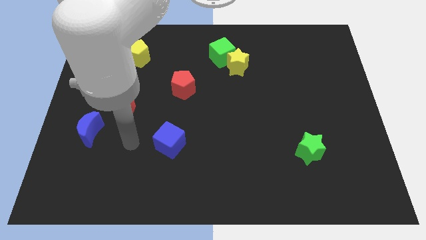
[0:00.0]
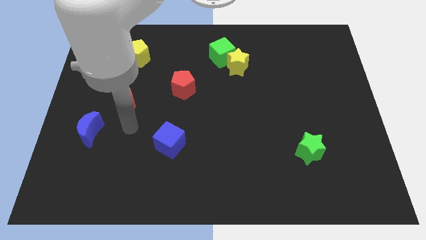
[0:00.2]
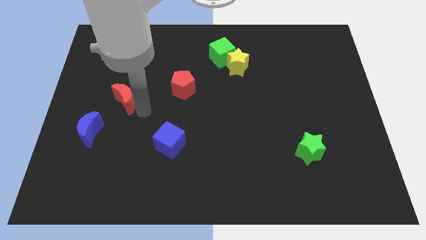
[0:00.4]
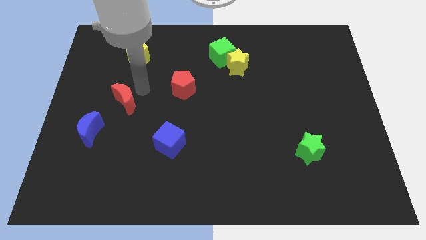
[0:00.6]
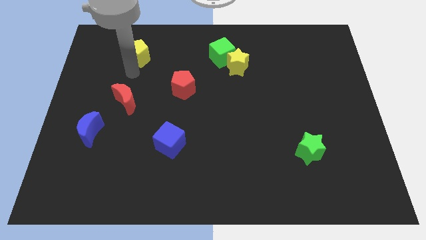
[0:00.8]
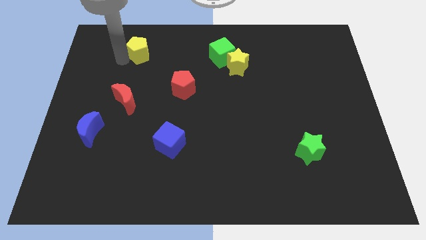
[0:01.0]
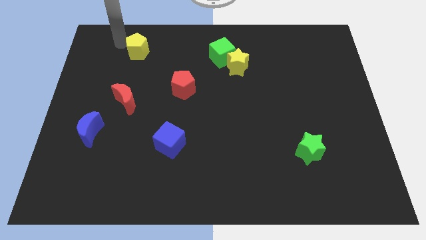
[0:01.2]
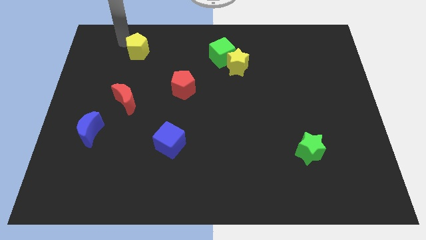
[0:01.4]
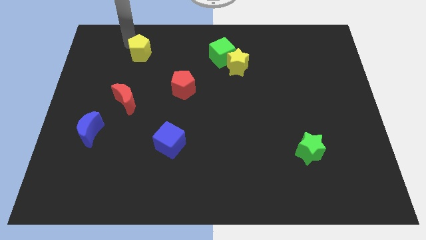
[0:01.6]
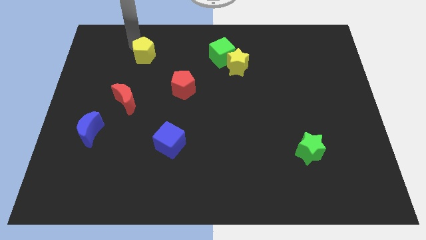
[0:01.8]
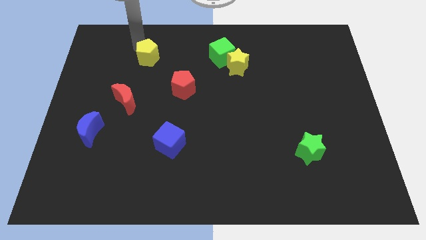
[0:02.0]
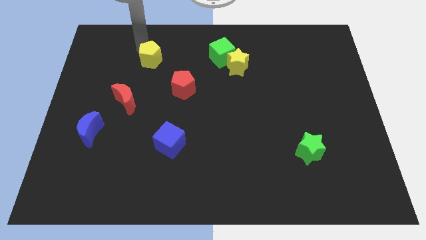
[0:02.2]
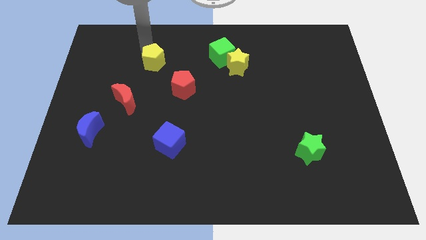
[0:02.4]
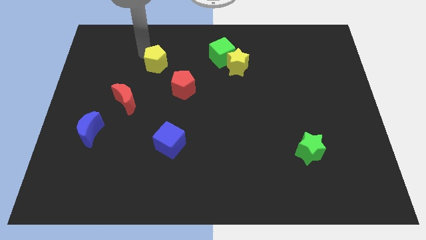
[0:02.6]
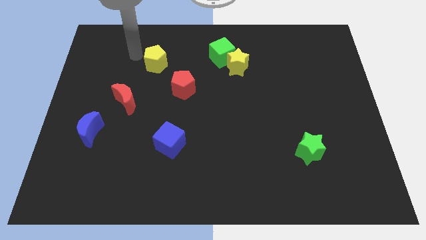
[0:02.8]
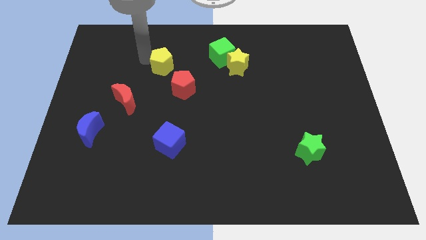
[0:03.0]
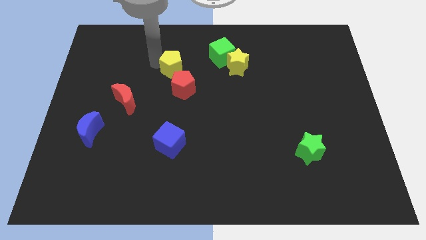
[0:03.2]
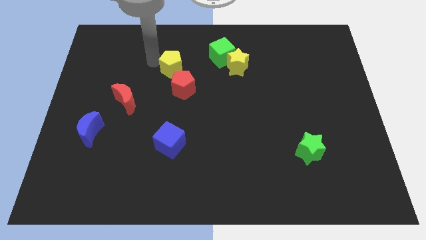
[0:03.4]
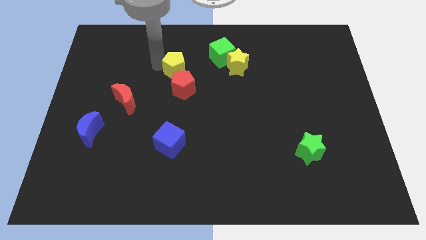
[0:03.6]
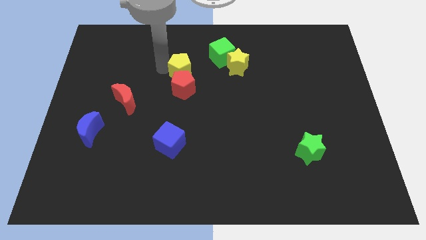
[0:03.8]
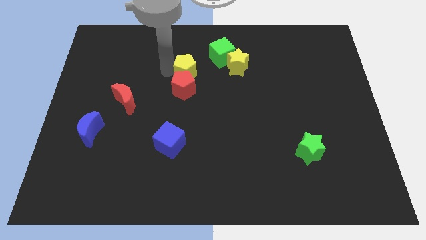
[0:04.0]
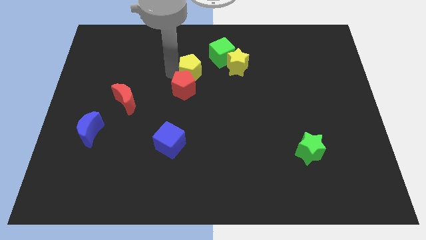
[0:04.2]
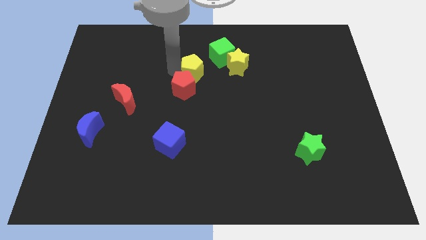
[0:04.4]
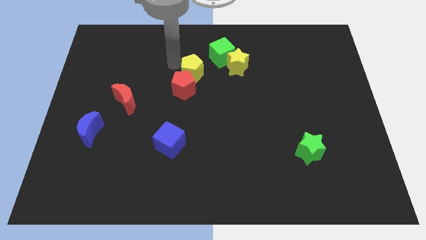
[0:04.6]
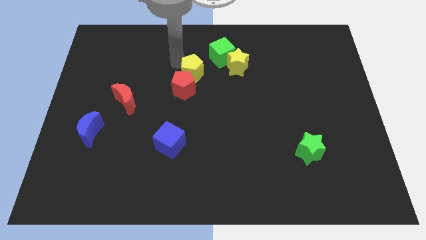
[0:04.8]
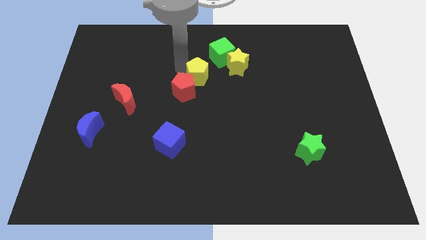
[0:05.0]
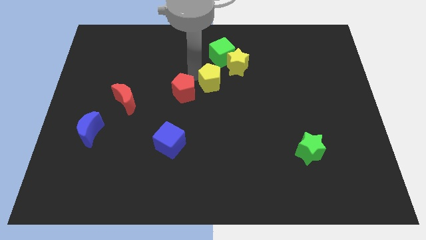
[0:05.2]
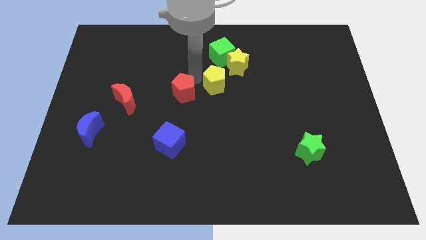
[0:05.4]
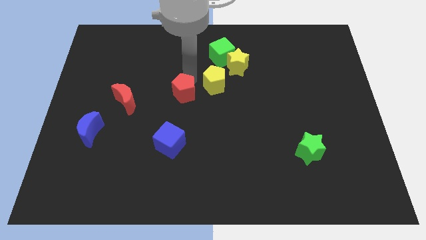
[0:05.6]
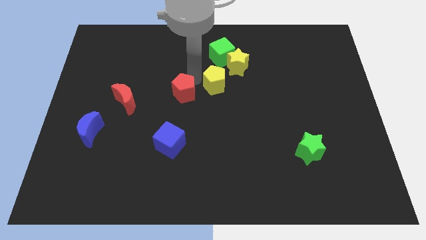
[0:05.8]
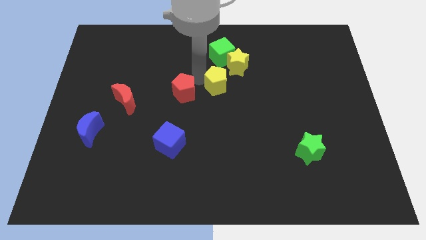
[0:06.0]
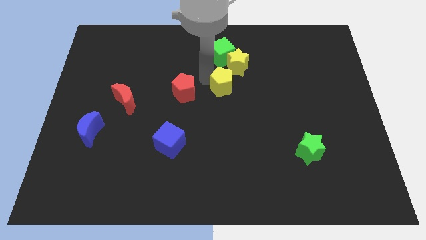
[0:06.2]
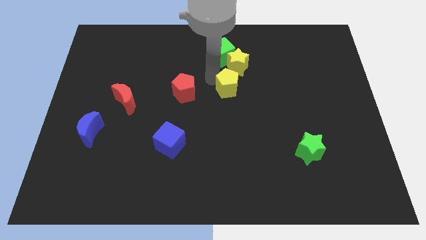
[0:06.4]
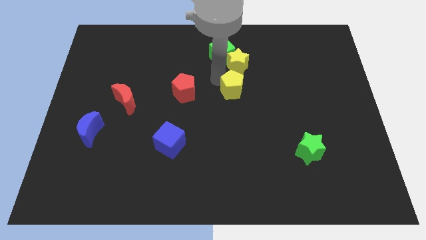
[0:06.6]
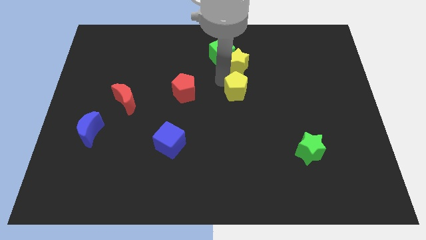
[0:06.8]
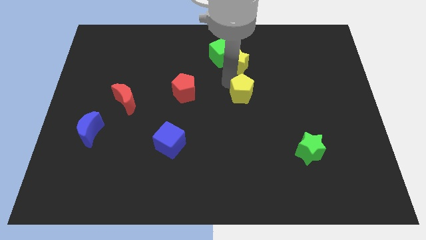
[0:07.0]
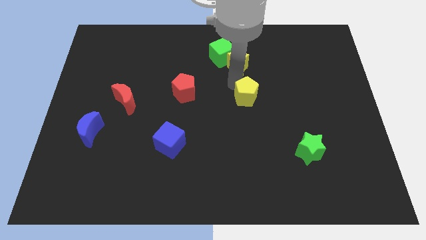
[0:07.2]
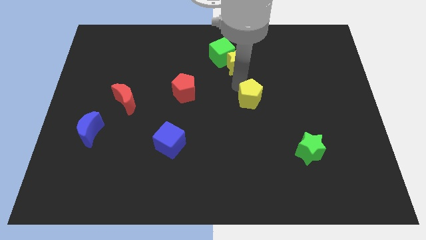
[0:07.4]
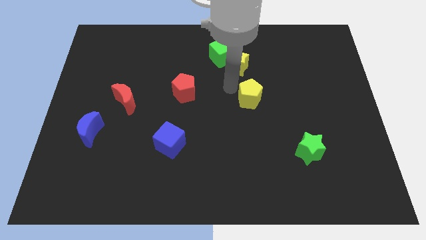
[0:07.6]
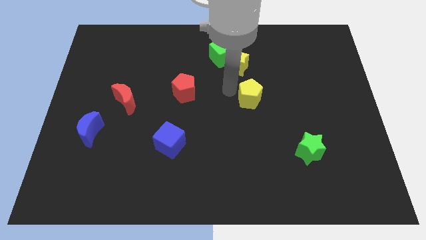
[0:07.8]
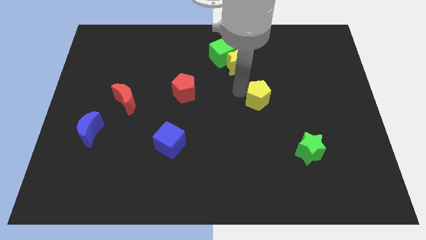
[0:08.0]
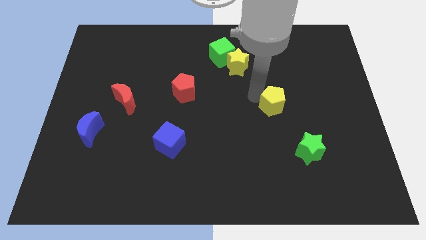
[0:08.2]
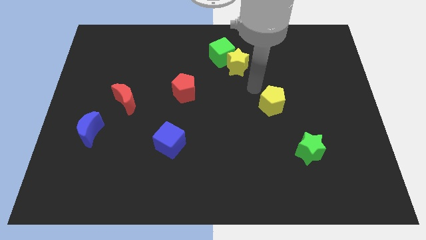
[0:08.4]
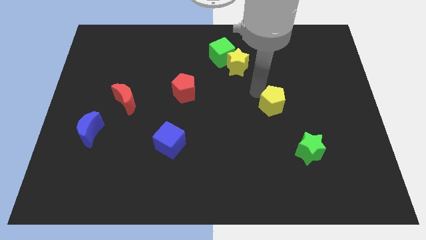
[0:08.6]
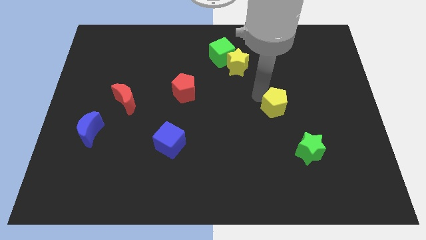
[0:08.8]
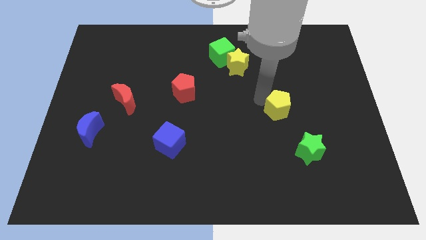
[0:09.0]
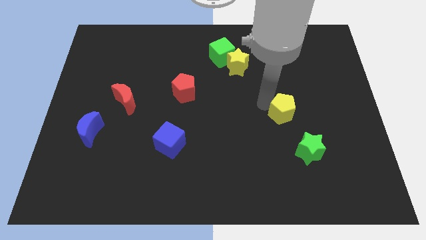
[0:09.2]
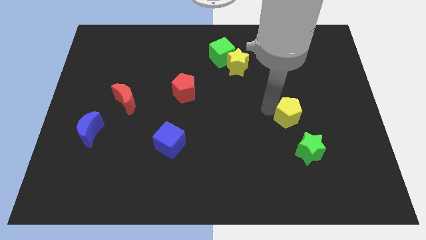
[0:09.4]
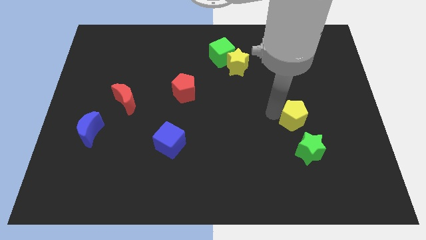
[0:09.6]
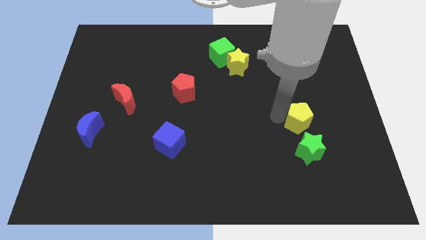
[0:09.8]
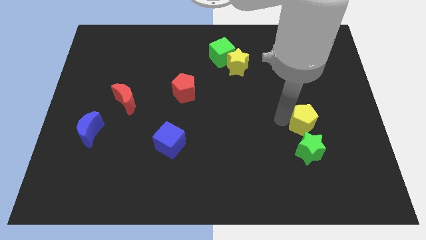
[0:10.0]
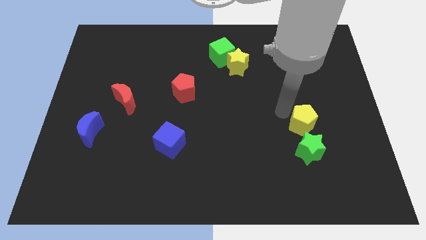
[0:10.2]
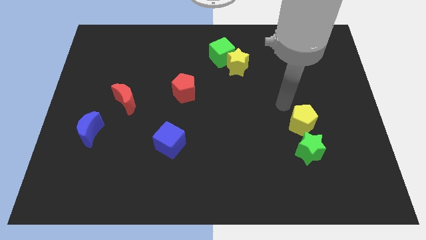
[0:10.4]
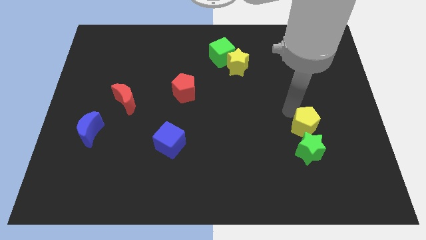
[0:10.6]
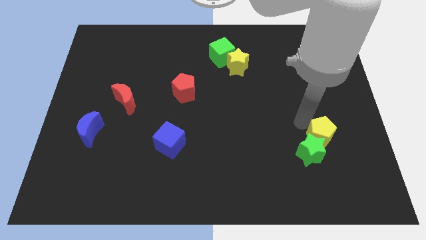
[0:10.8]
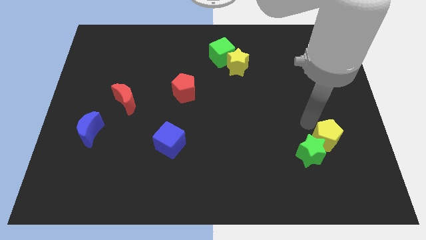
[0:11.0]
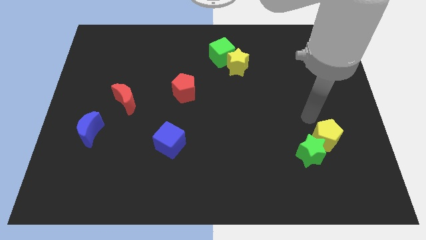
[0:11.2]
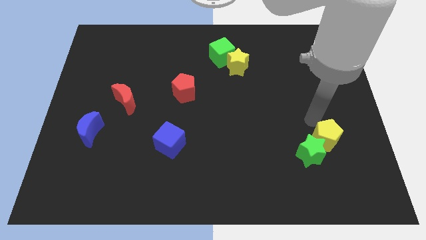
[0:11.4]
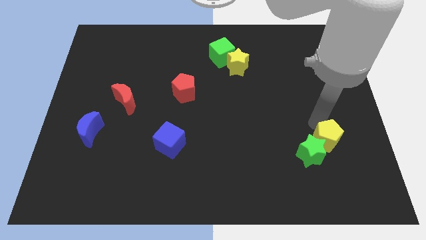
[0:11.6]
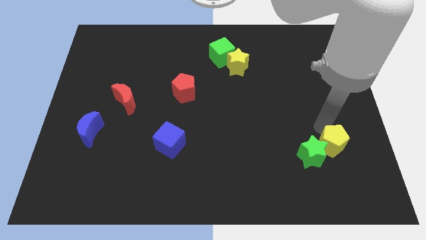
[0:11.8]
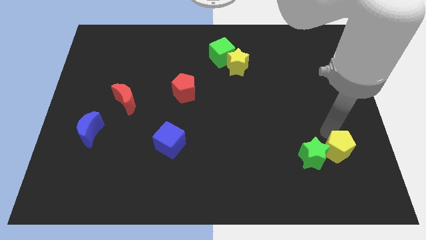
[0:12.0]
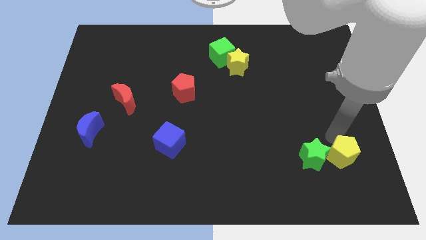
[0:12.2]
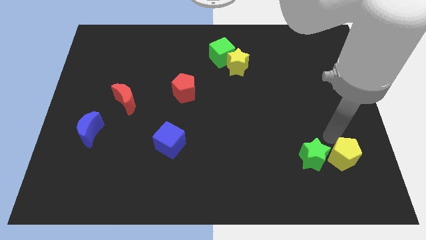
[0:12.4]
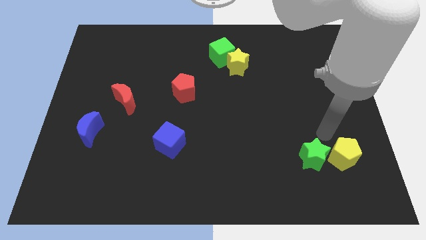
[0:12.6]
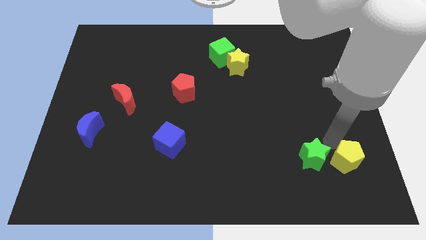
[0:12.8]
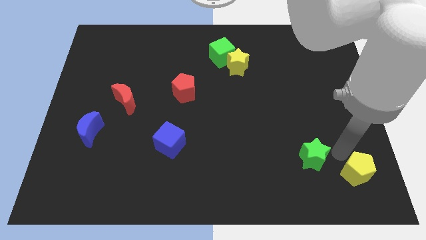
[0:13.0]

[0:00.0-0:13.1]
push the yellow pentagon to the bottom right
